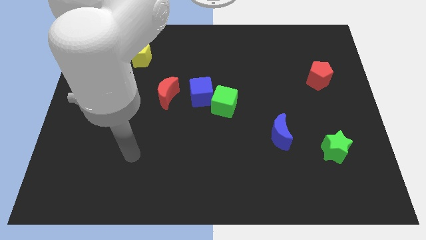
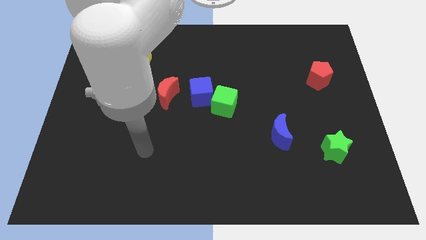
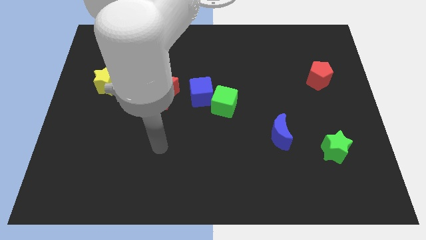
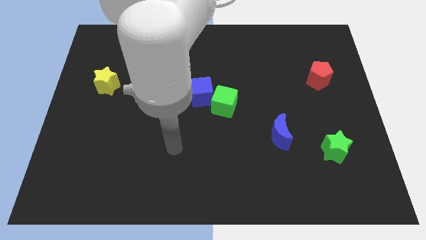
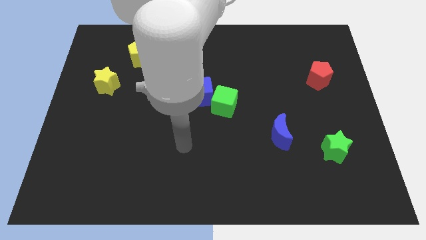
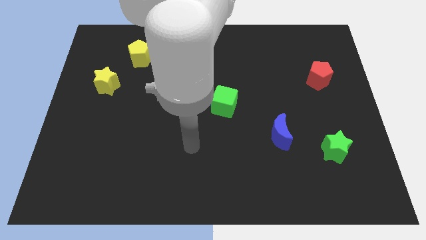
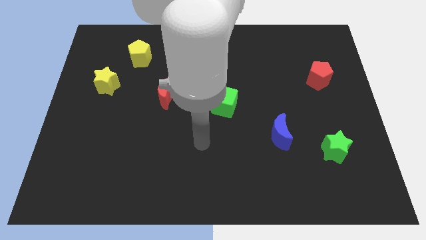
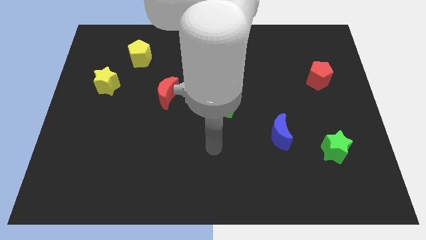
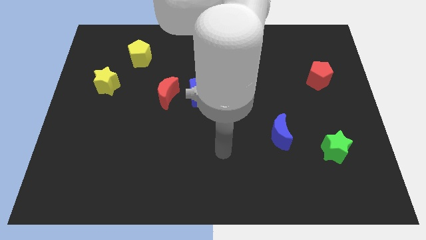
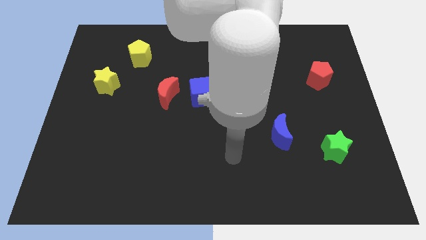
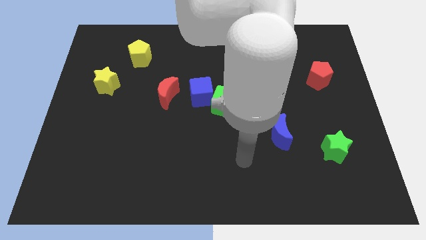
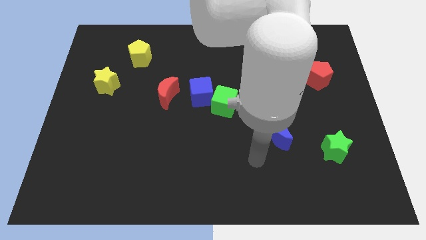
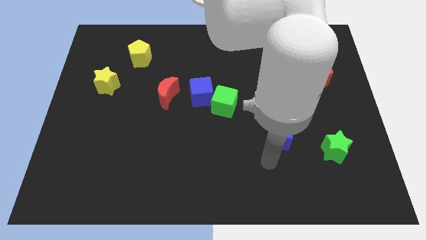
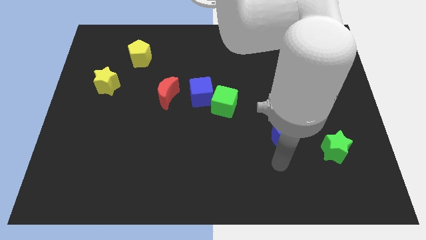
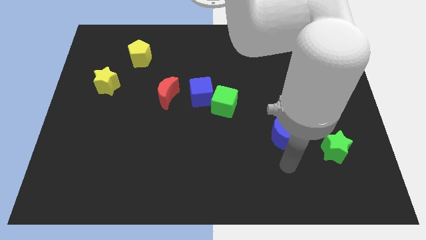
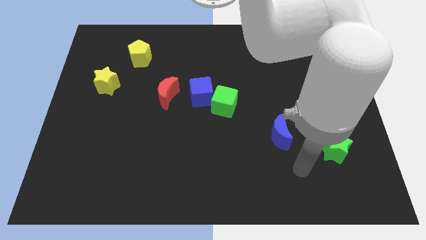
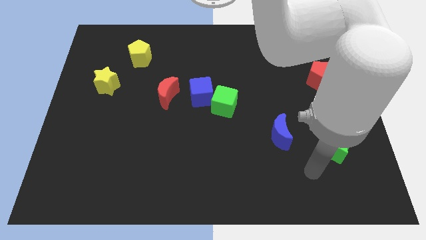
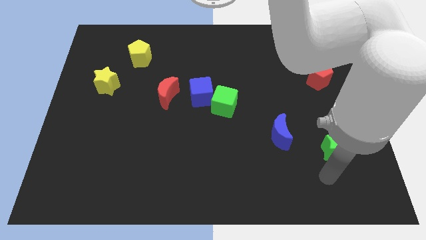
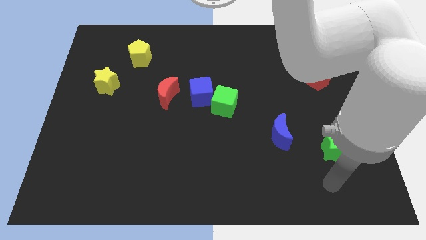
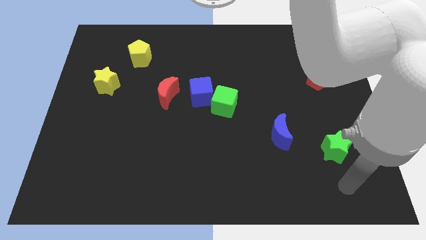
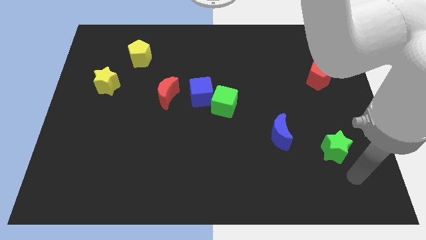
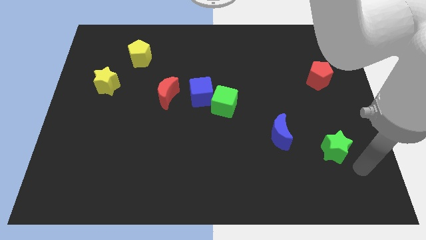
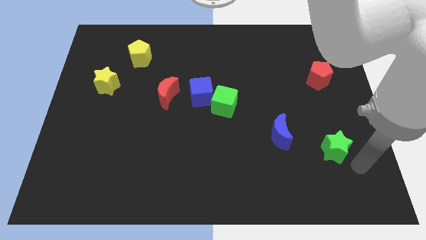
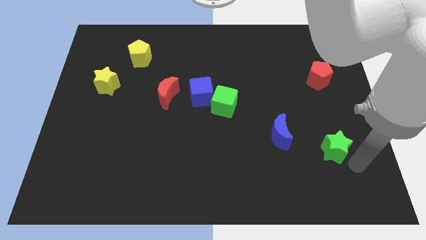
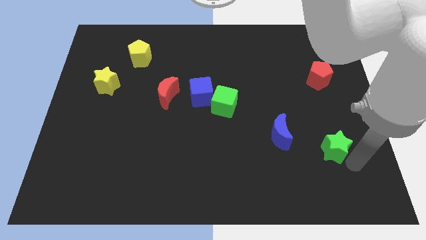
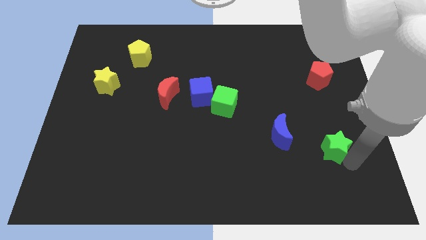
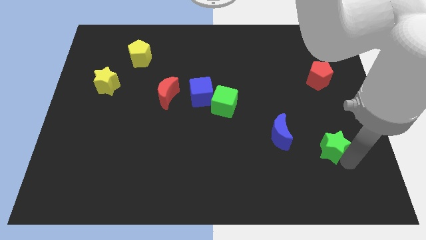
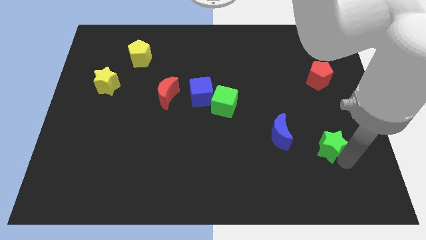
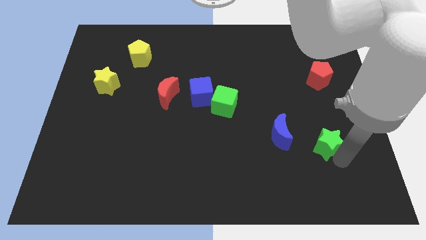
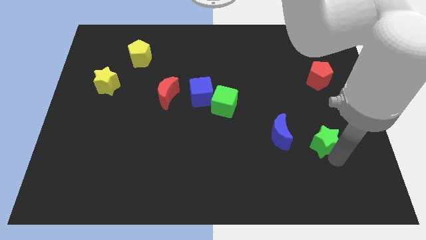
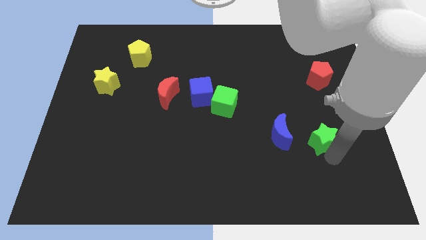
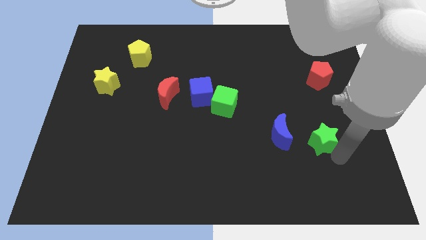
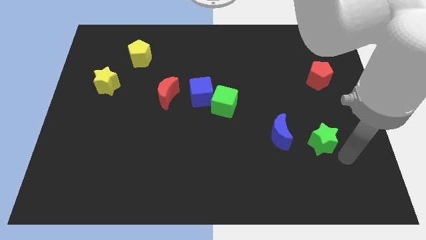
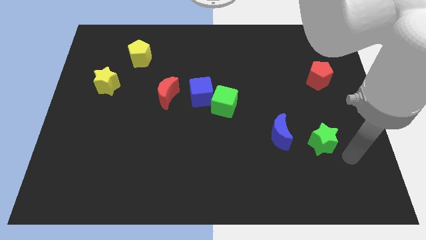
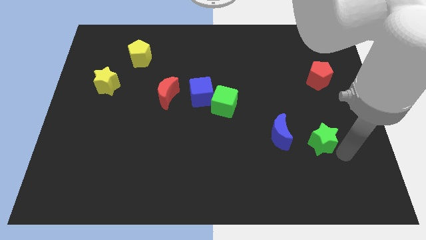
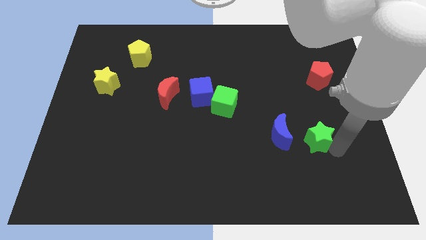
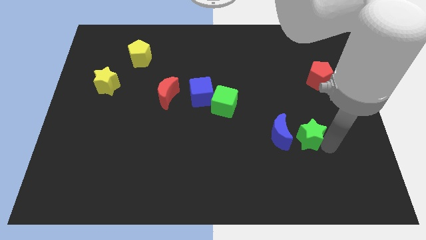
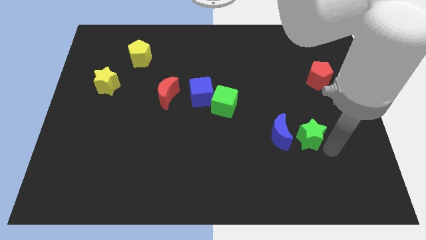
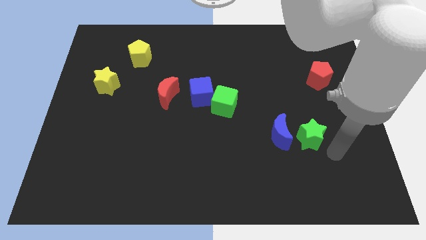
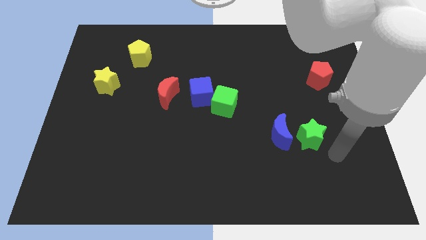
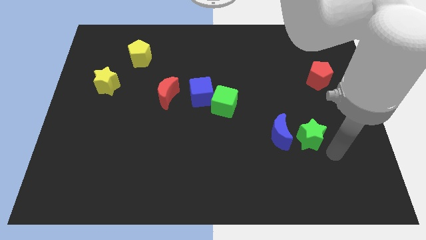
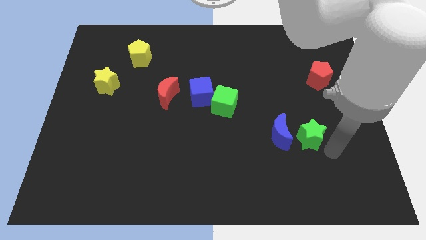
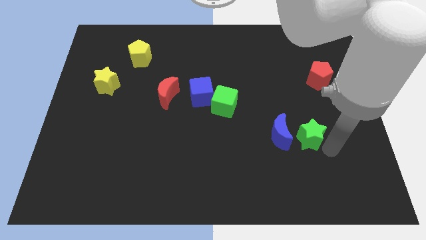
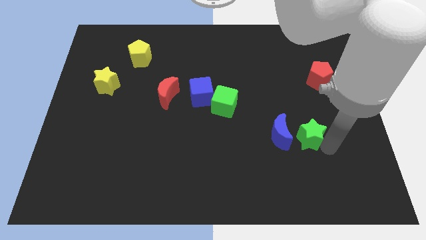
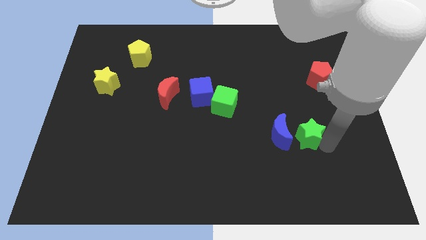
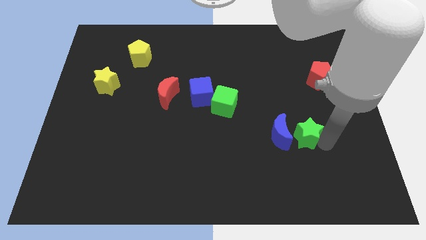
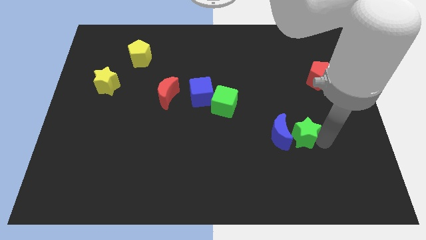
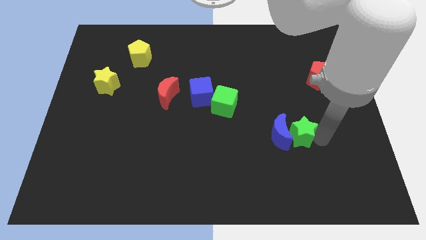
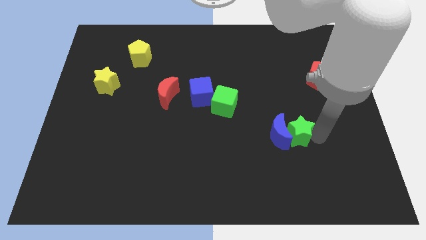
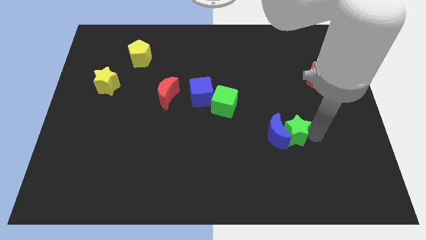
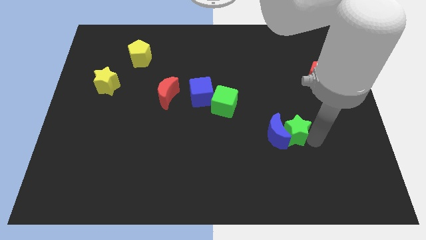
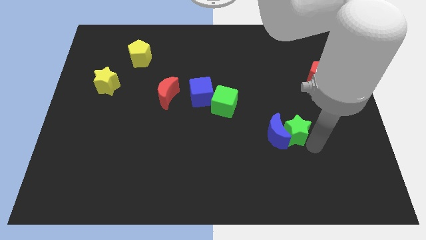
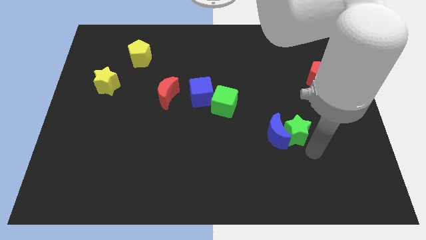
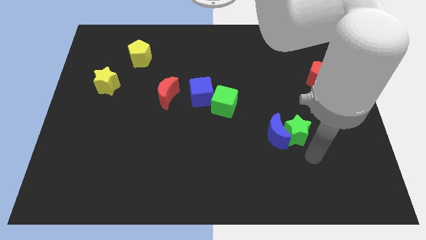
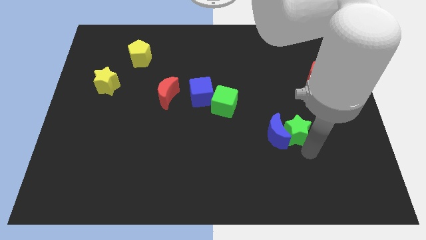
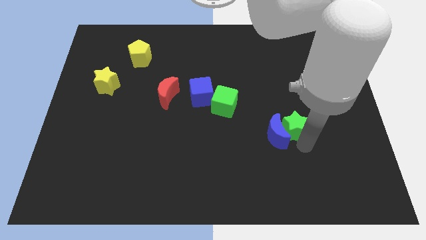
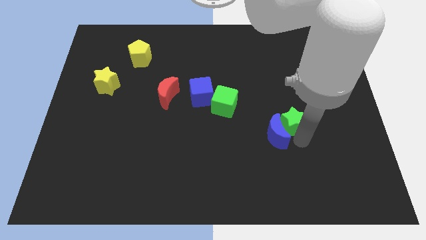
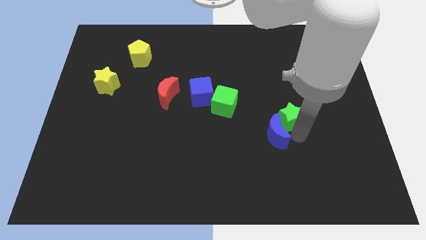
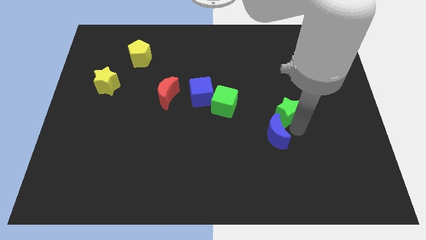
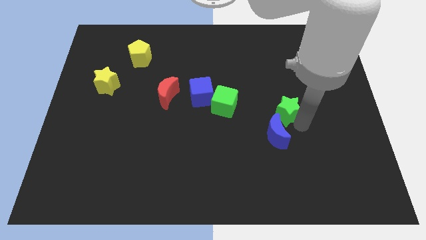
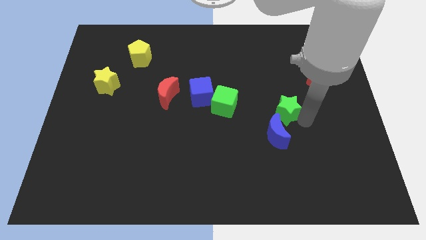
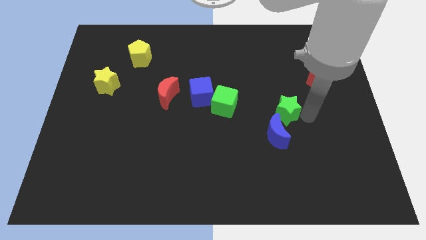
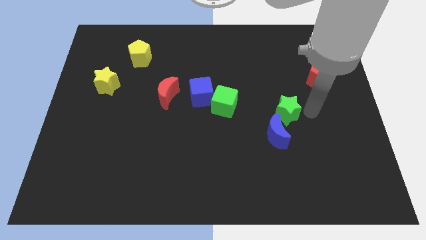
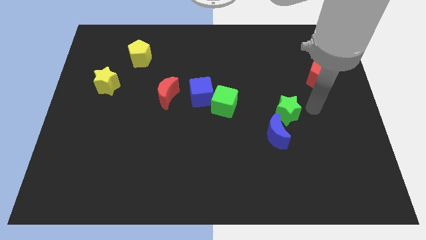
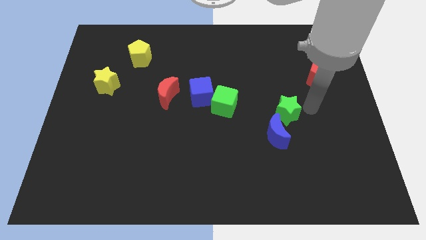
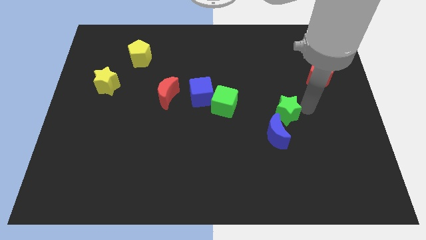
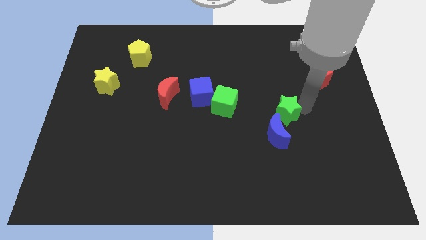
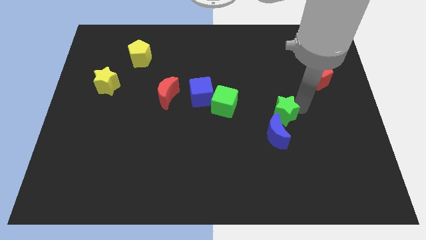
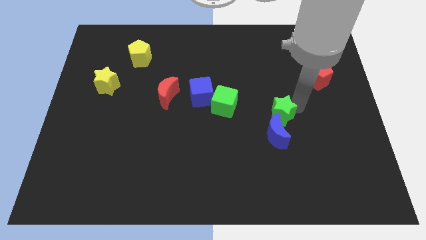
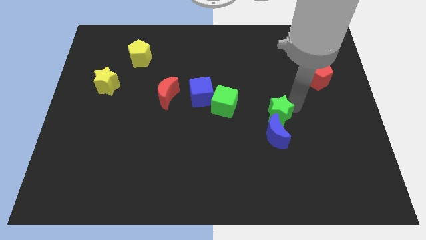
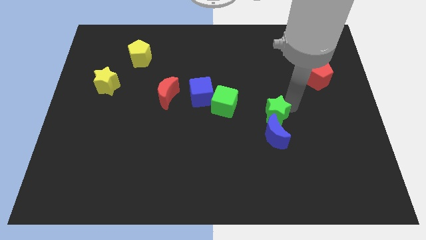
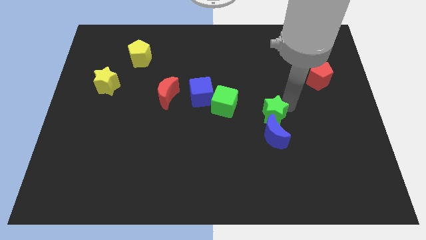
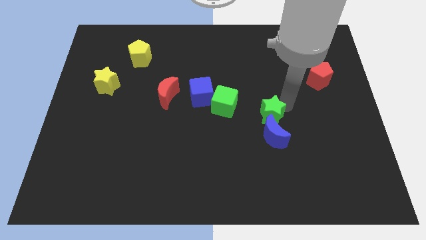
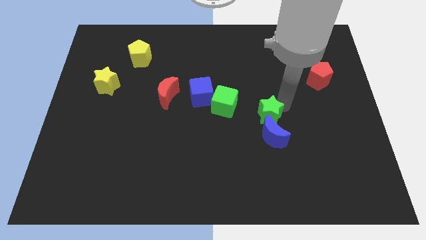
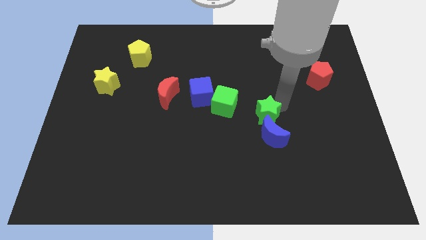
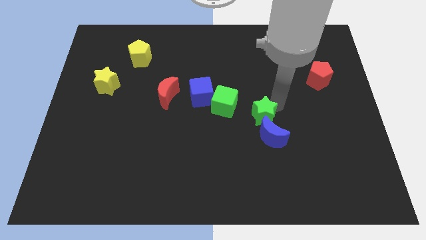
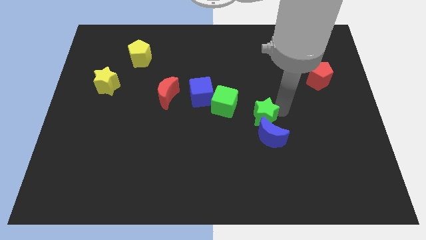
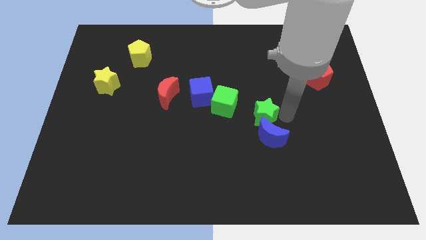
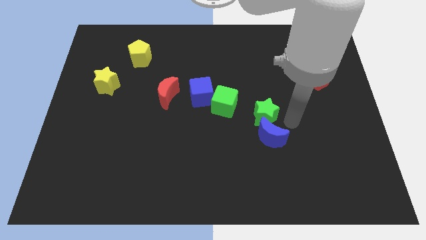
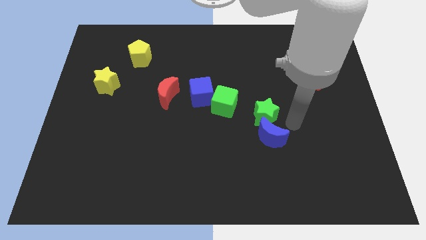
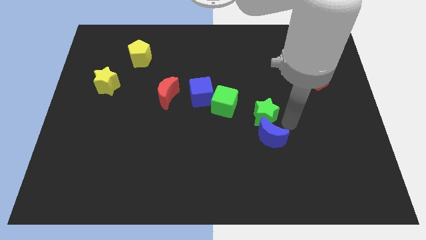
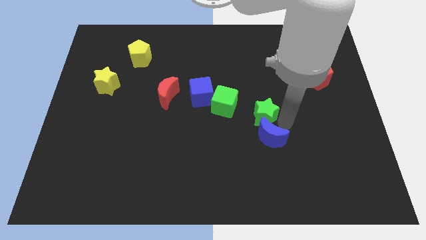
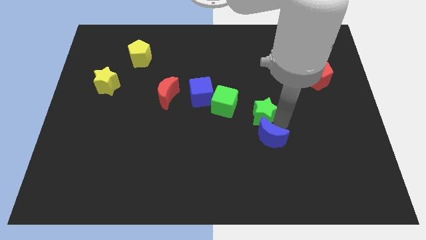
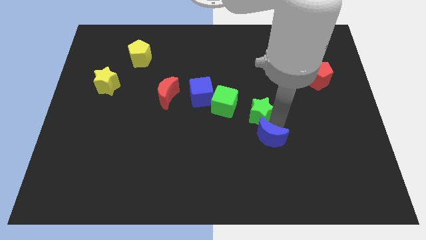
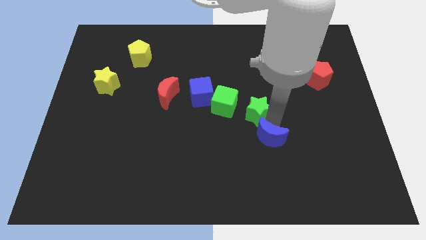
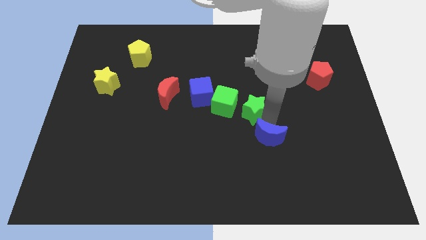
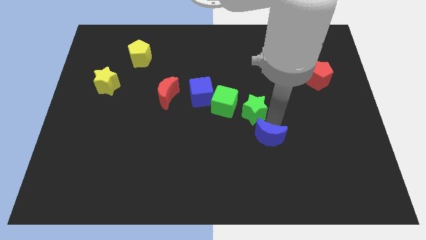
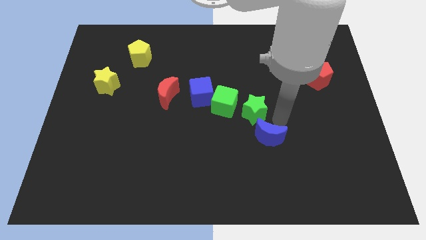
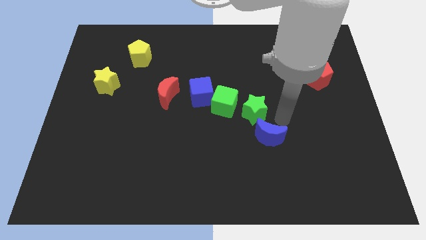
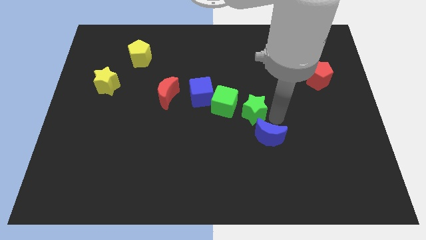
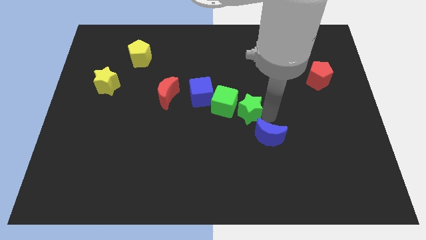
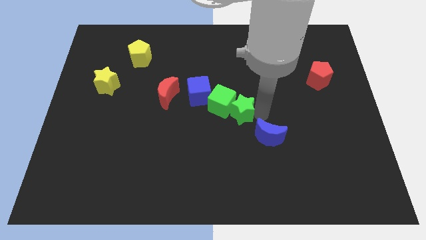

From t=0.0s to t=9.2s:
move the green star towards the green cube
